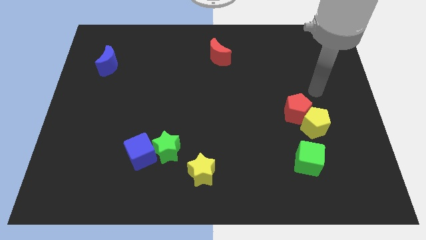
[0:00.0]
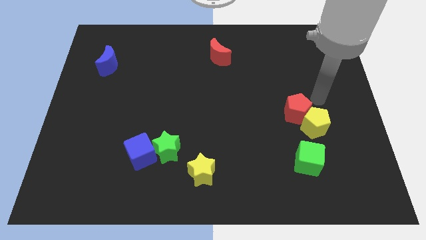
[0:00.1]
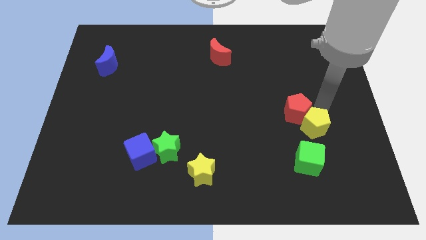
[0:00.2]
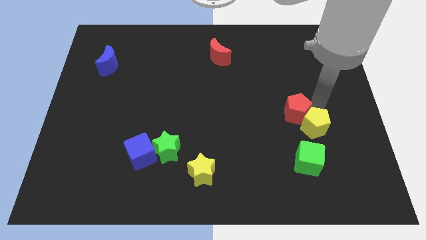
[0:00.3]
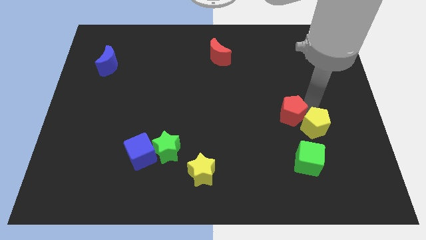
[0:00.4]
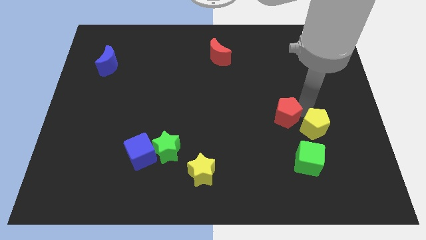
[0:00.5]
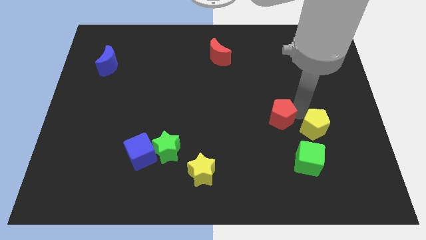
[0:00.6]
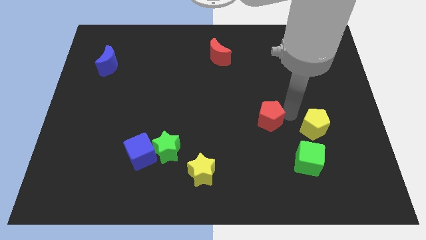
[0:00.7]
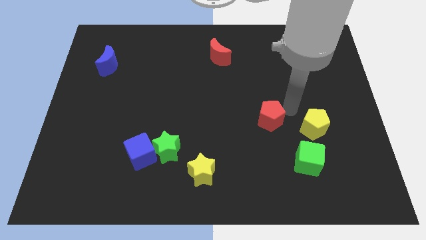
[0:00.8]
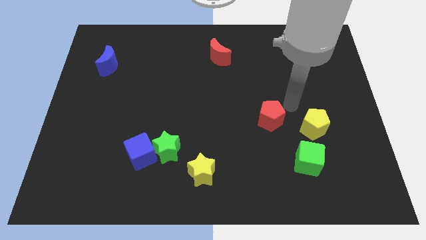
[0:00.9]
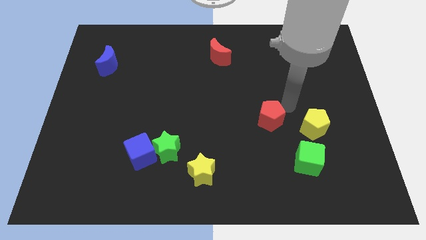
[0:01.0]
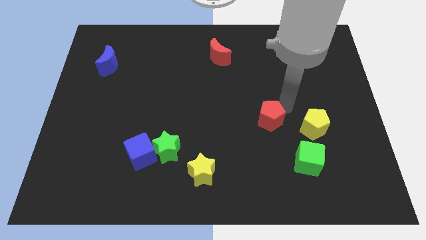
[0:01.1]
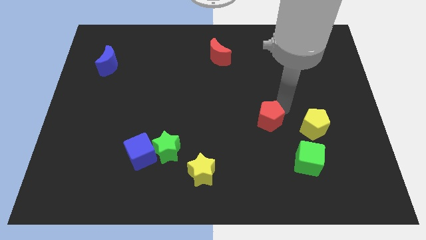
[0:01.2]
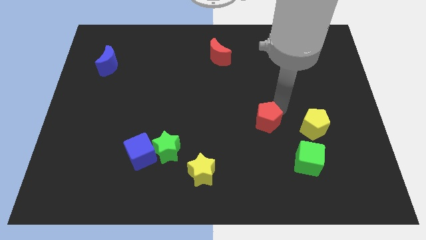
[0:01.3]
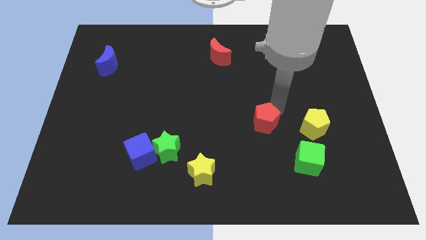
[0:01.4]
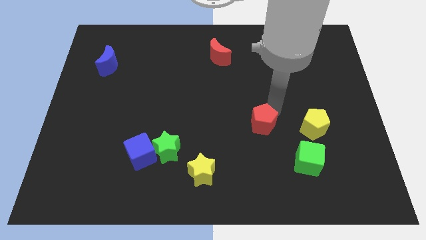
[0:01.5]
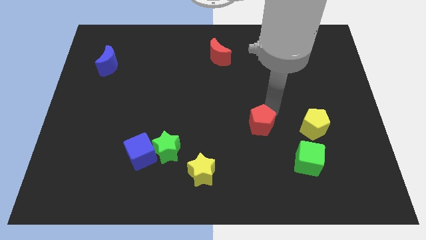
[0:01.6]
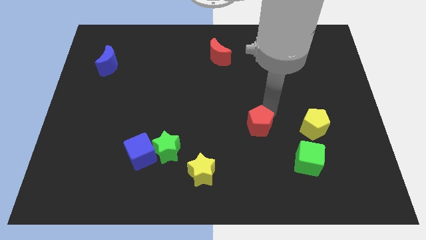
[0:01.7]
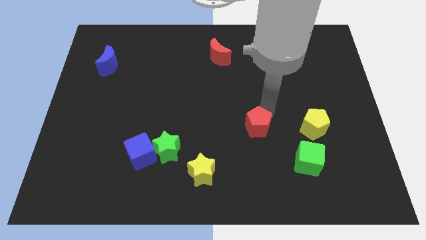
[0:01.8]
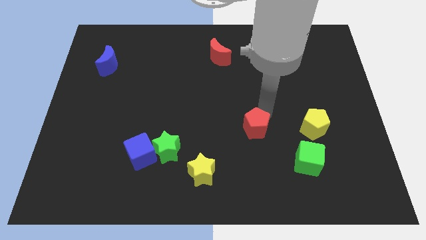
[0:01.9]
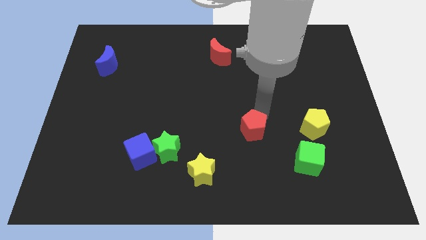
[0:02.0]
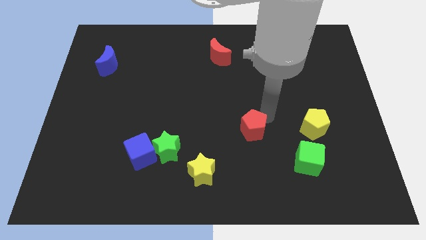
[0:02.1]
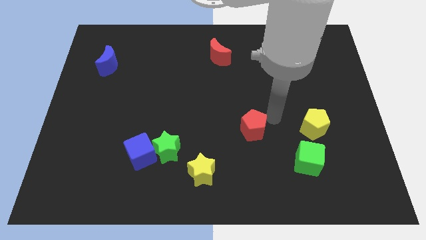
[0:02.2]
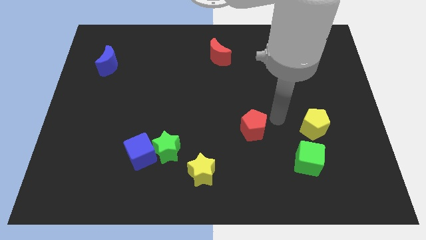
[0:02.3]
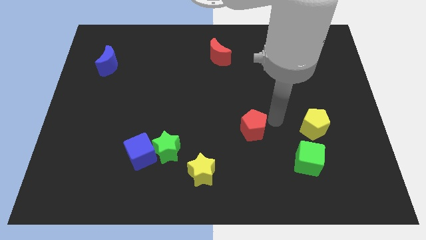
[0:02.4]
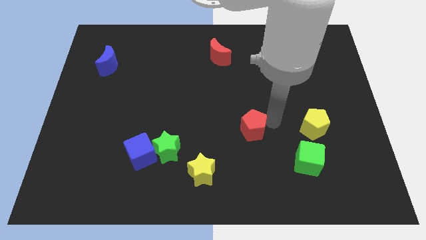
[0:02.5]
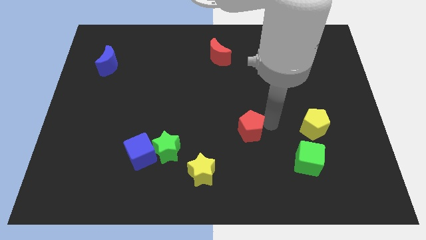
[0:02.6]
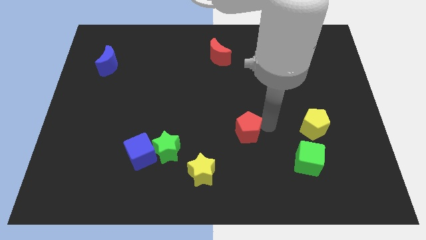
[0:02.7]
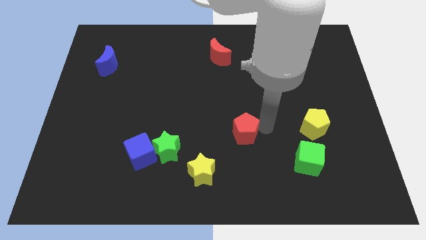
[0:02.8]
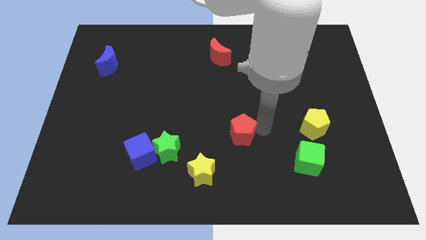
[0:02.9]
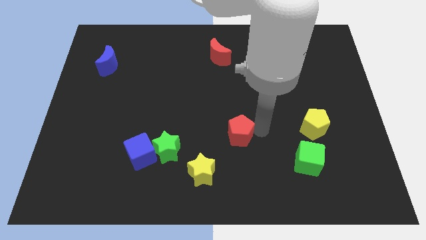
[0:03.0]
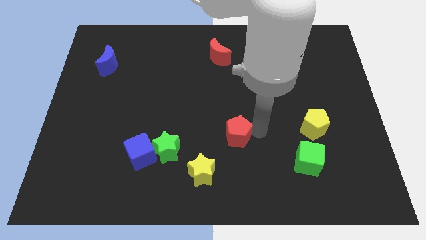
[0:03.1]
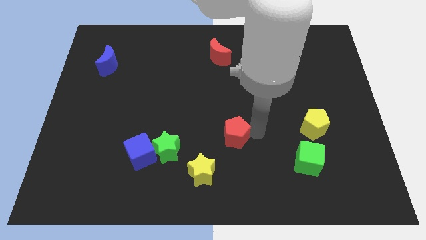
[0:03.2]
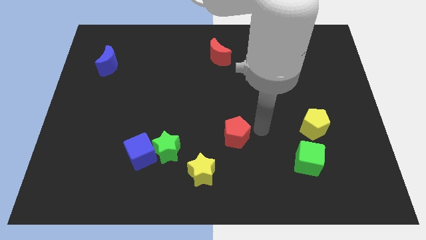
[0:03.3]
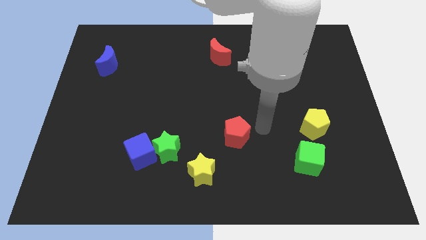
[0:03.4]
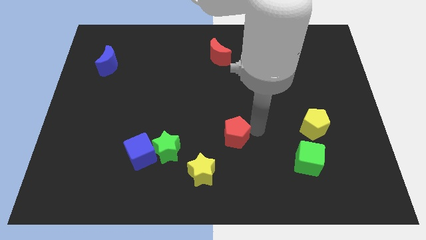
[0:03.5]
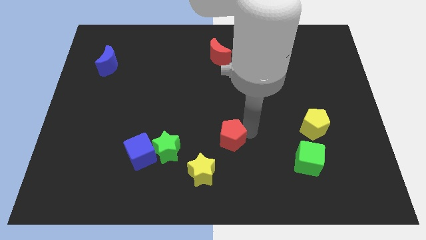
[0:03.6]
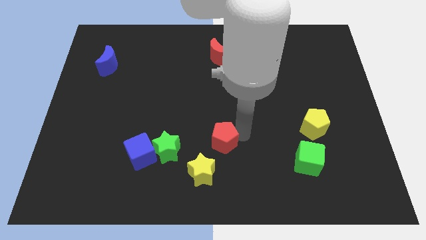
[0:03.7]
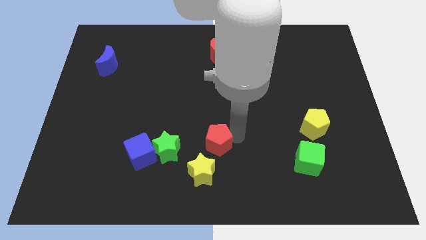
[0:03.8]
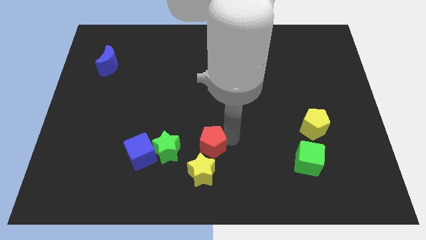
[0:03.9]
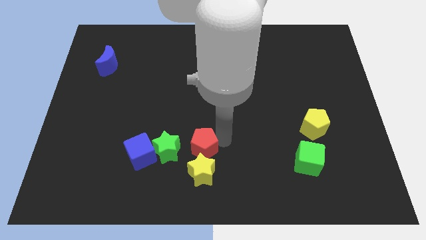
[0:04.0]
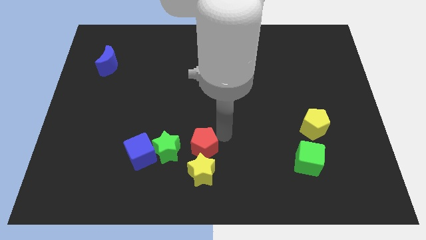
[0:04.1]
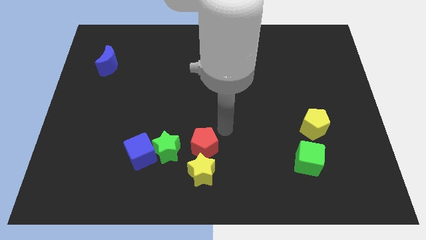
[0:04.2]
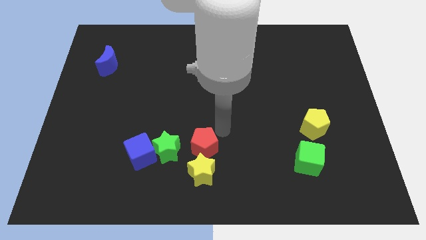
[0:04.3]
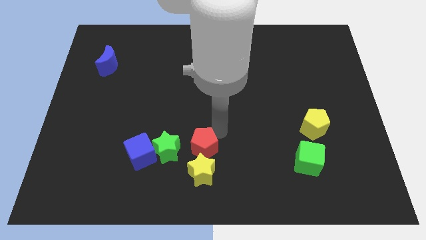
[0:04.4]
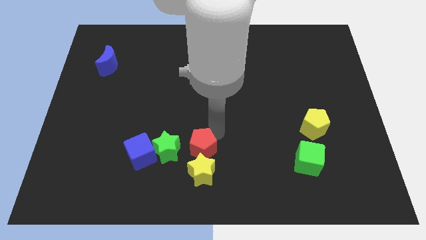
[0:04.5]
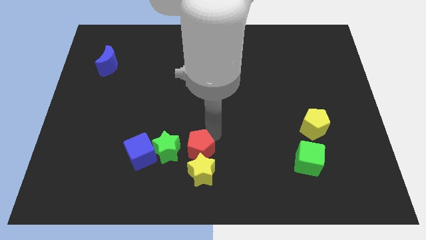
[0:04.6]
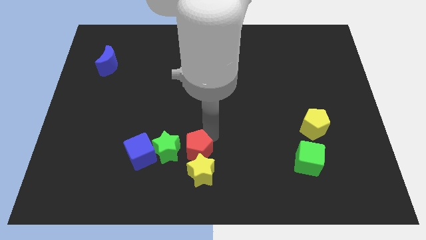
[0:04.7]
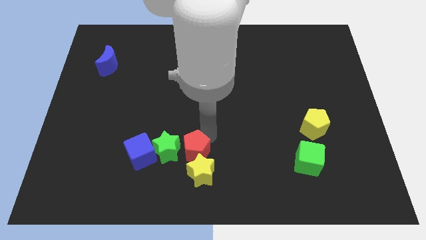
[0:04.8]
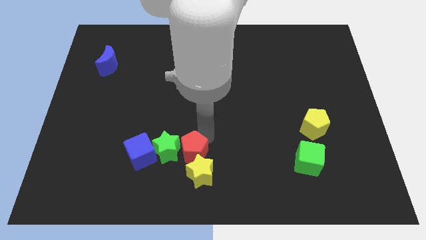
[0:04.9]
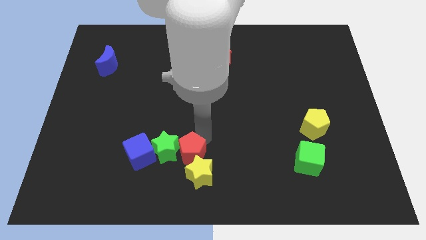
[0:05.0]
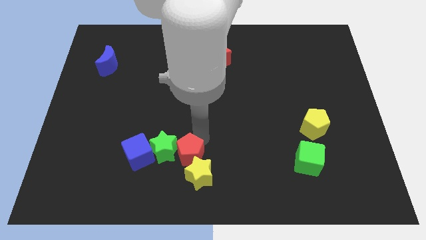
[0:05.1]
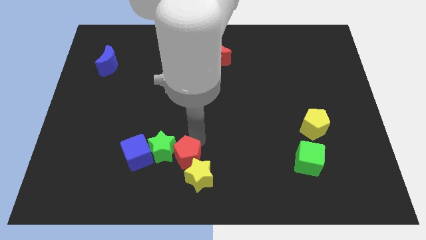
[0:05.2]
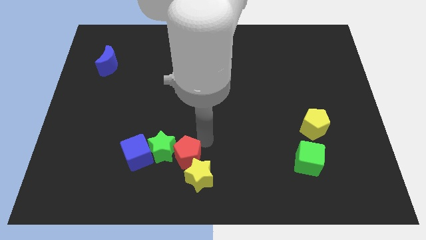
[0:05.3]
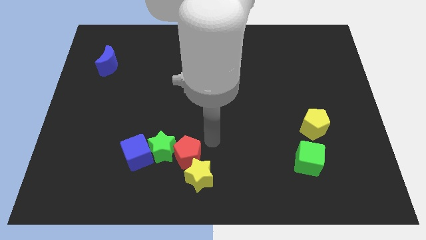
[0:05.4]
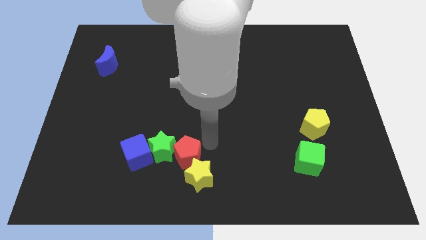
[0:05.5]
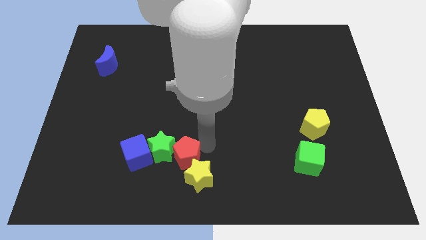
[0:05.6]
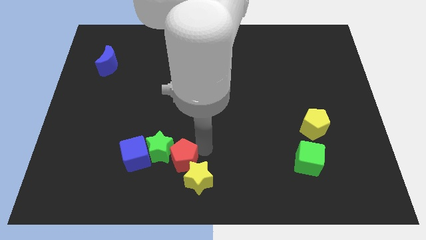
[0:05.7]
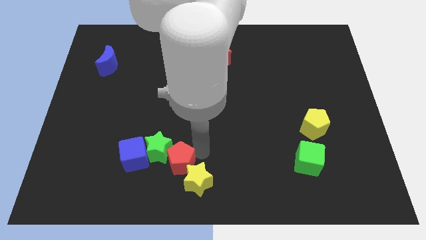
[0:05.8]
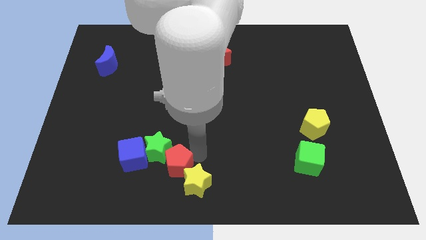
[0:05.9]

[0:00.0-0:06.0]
put the red pentagon left of the yellow star

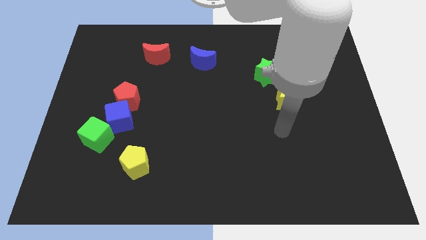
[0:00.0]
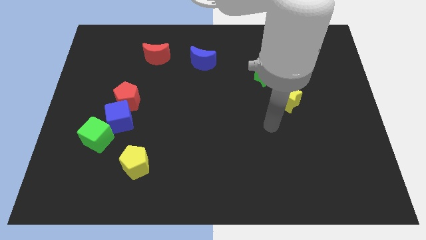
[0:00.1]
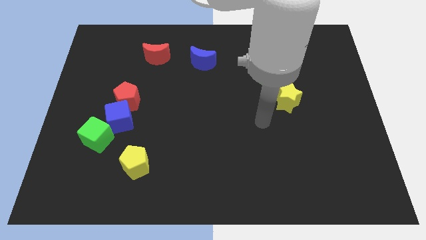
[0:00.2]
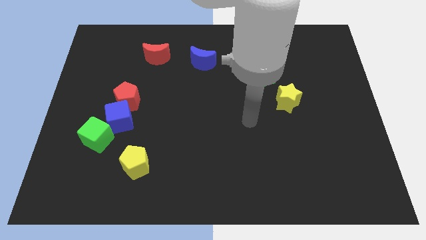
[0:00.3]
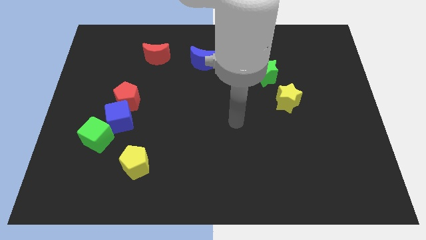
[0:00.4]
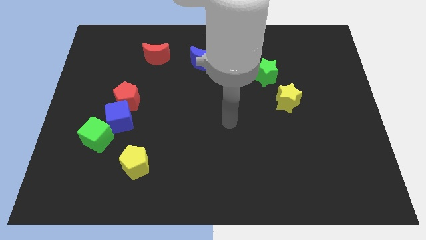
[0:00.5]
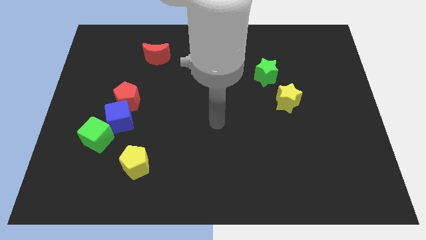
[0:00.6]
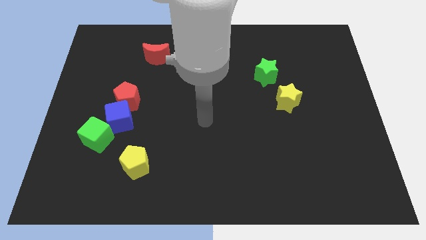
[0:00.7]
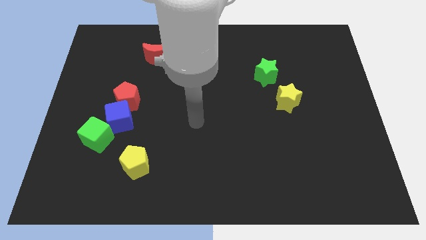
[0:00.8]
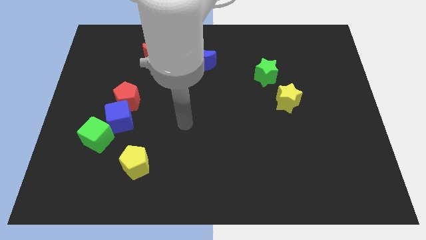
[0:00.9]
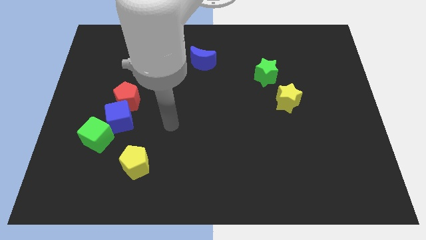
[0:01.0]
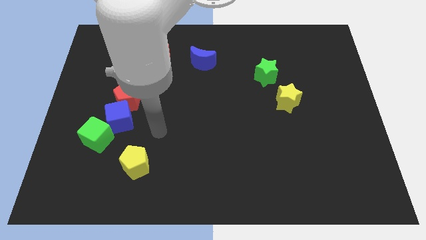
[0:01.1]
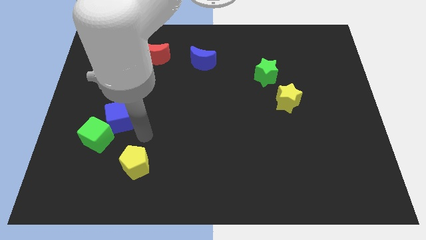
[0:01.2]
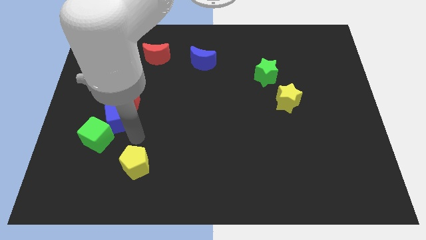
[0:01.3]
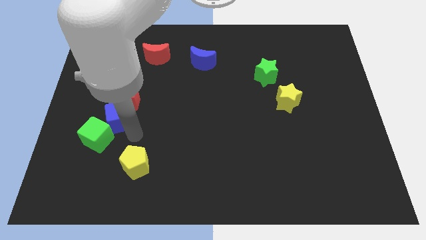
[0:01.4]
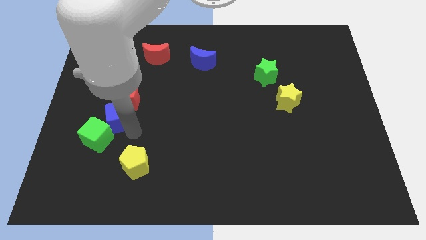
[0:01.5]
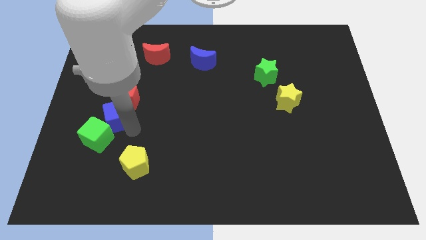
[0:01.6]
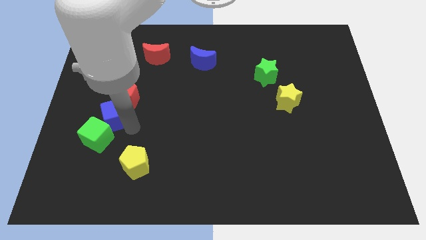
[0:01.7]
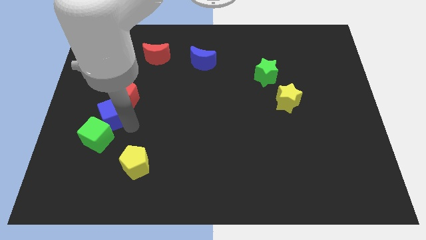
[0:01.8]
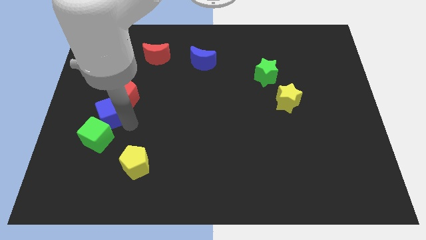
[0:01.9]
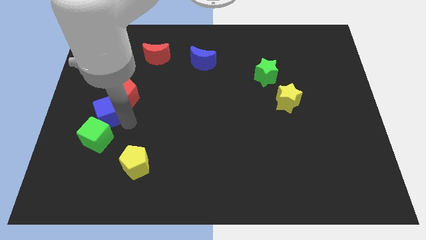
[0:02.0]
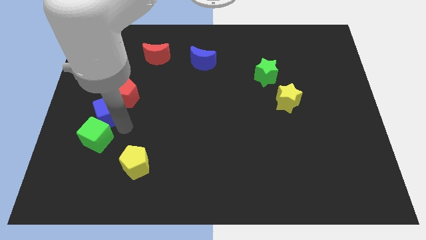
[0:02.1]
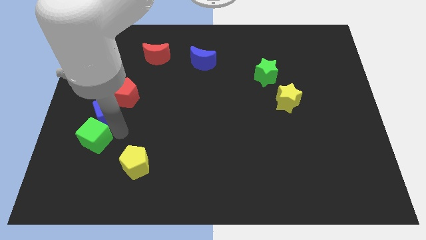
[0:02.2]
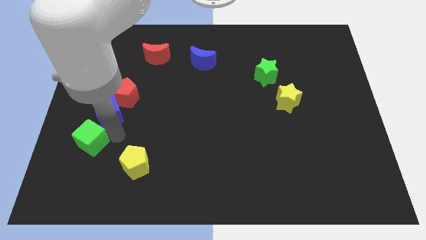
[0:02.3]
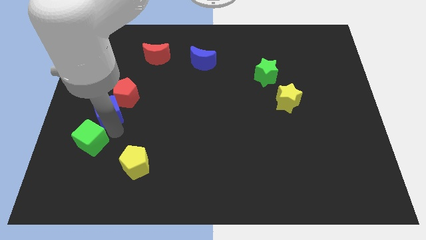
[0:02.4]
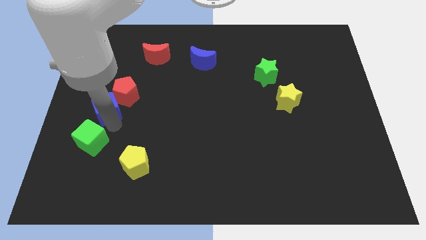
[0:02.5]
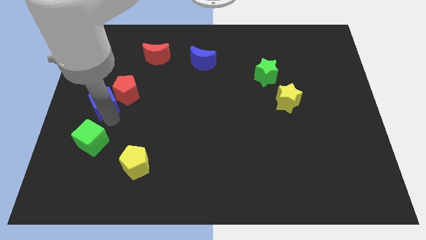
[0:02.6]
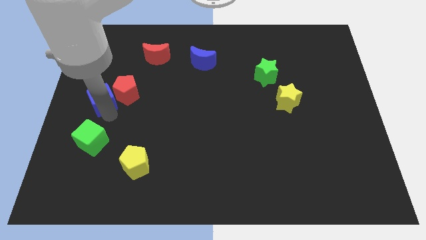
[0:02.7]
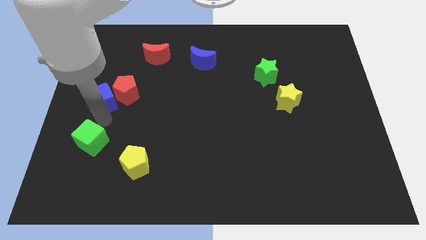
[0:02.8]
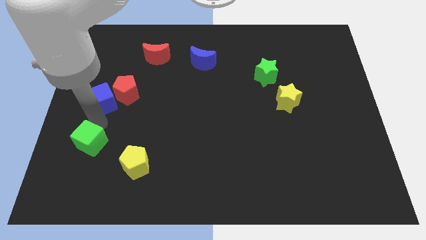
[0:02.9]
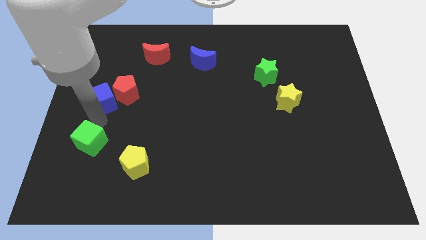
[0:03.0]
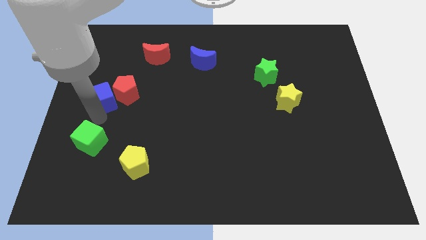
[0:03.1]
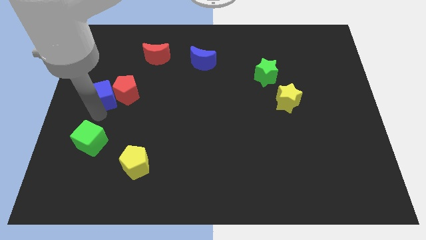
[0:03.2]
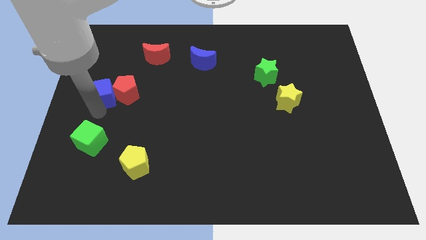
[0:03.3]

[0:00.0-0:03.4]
slide the blue cube to the top left of the red pentagon
